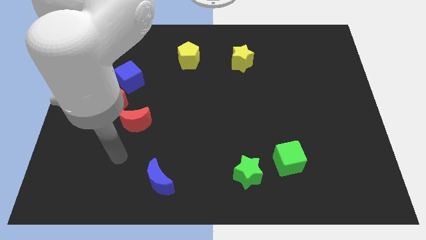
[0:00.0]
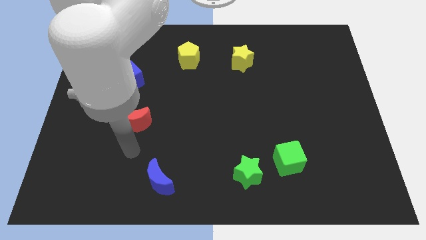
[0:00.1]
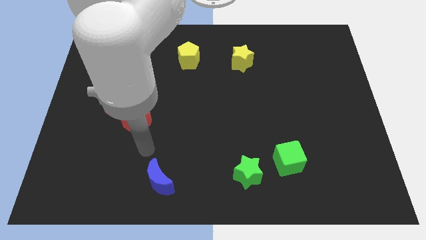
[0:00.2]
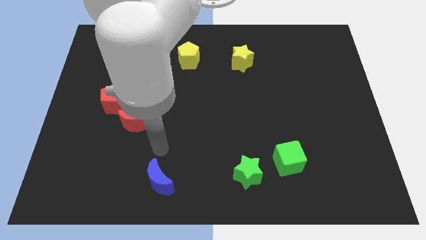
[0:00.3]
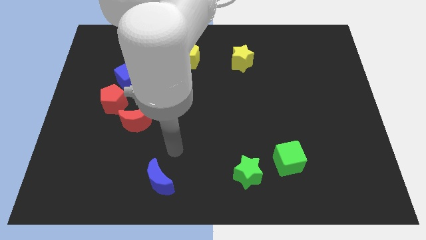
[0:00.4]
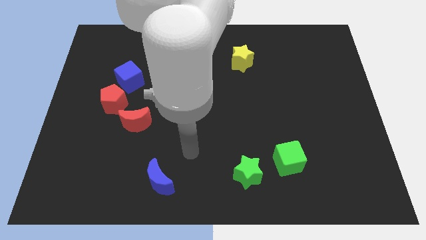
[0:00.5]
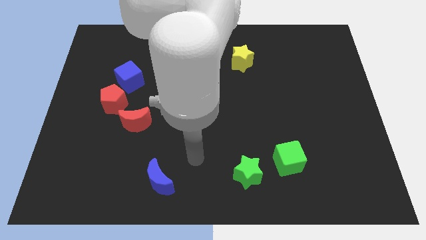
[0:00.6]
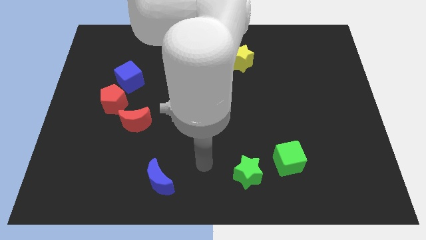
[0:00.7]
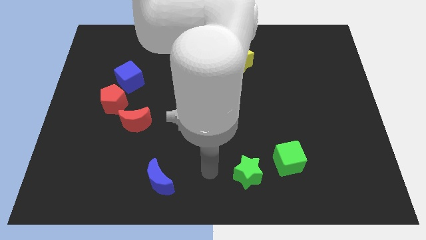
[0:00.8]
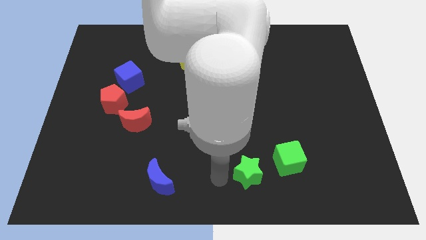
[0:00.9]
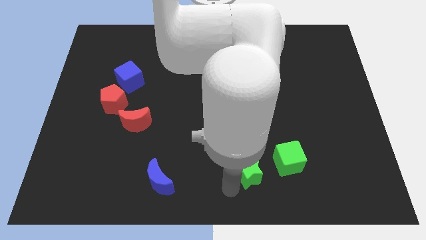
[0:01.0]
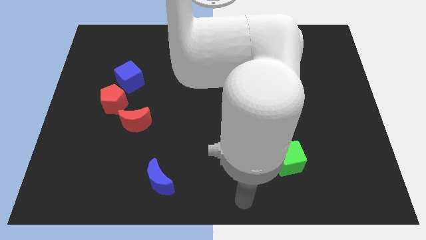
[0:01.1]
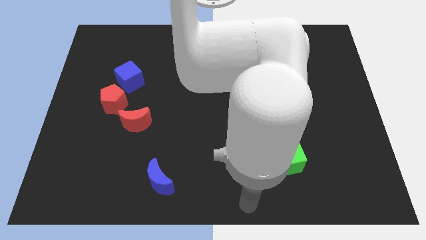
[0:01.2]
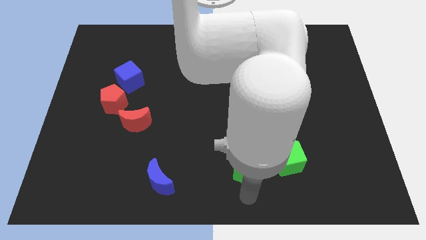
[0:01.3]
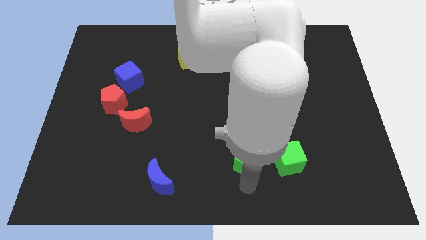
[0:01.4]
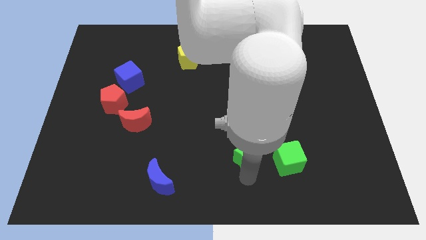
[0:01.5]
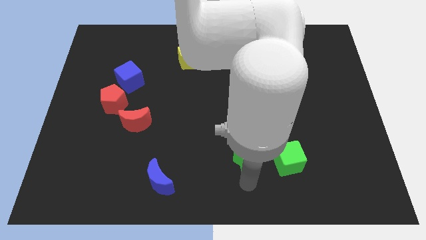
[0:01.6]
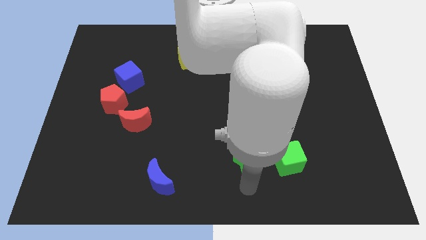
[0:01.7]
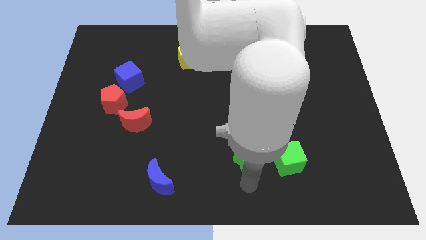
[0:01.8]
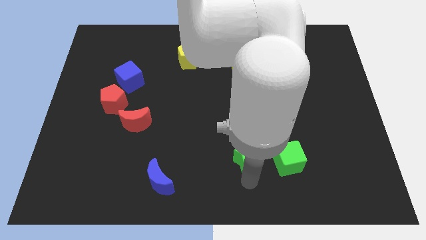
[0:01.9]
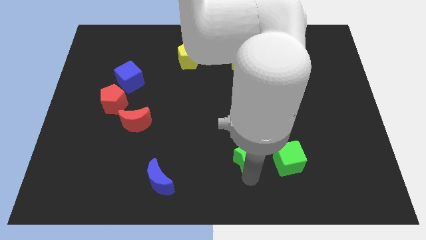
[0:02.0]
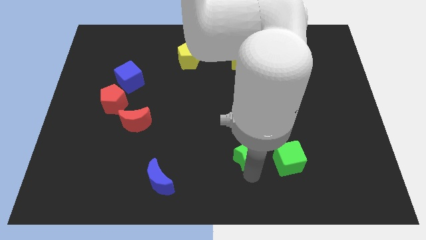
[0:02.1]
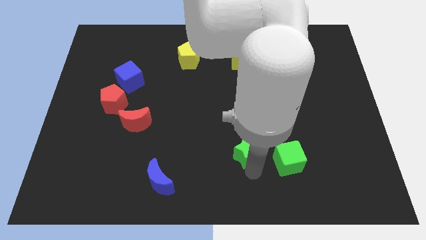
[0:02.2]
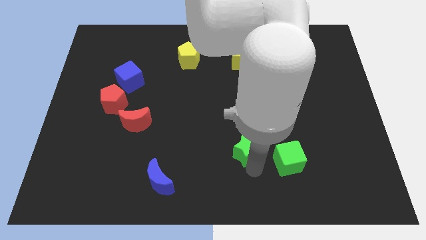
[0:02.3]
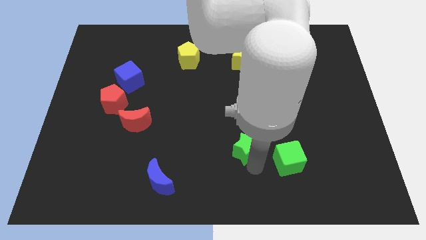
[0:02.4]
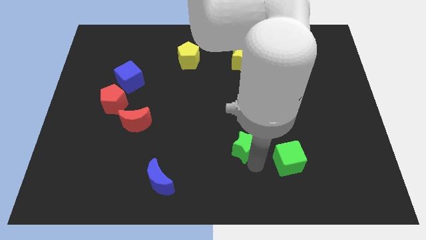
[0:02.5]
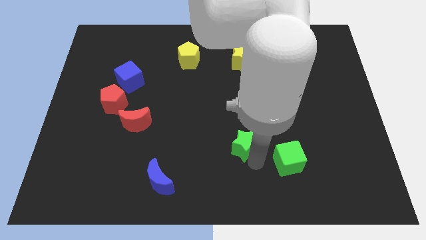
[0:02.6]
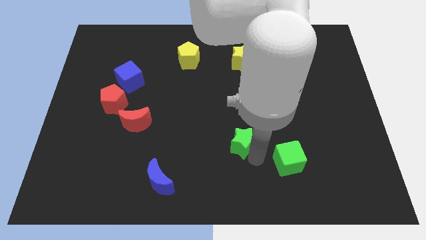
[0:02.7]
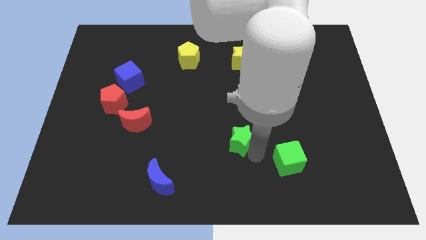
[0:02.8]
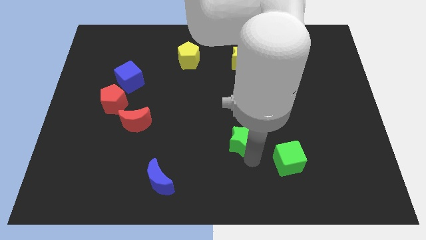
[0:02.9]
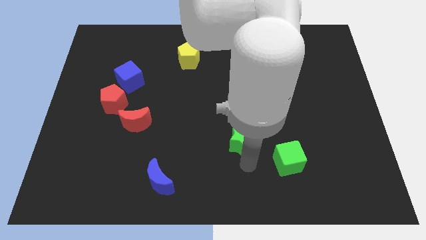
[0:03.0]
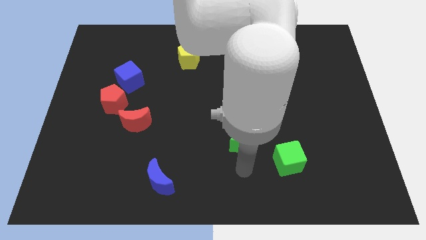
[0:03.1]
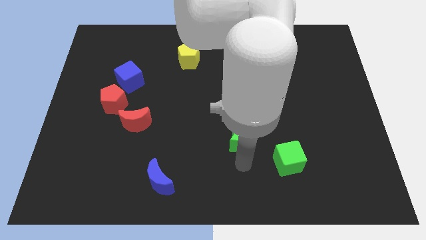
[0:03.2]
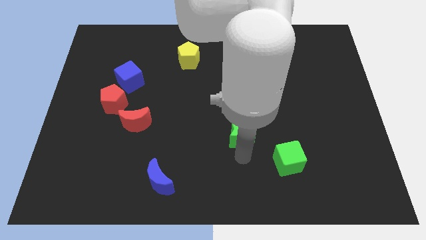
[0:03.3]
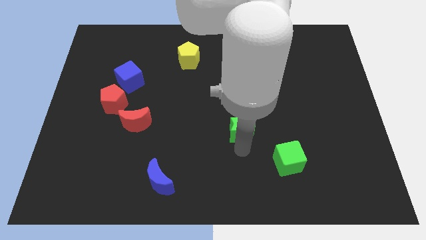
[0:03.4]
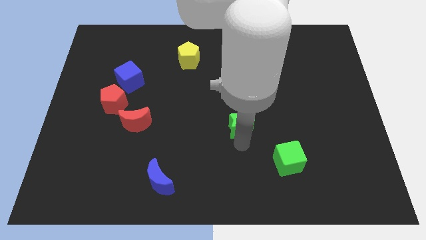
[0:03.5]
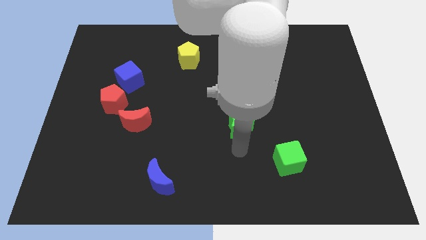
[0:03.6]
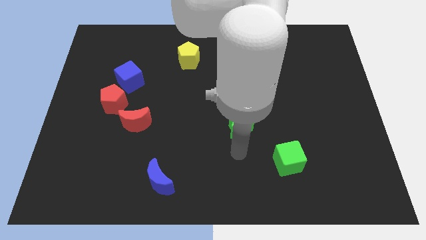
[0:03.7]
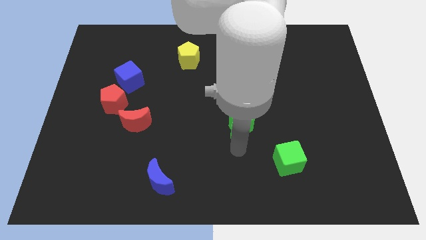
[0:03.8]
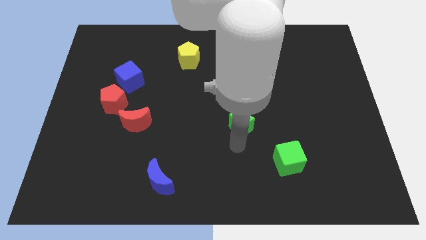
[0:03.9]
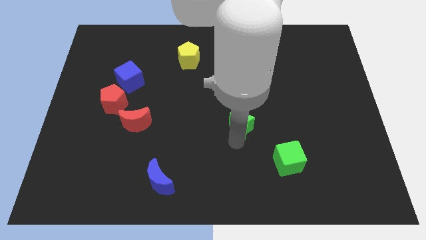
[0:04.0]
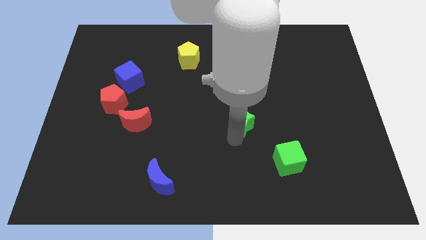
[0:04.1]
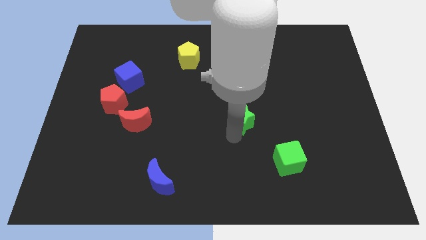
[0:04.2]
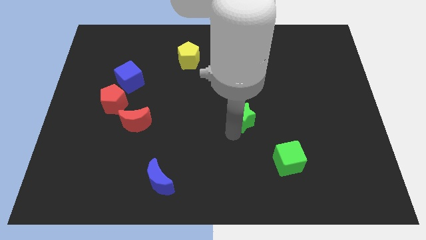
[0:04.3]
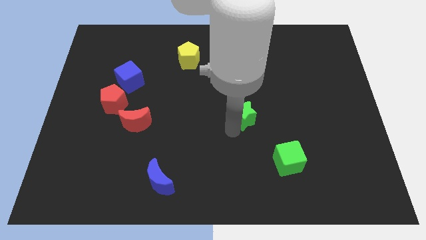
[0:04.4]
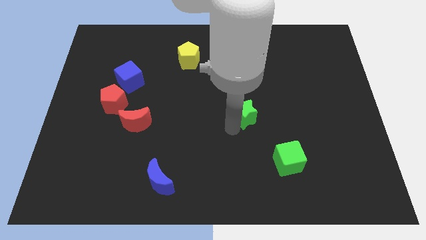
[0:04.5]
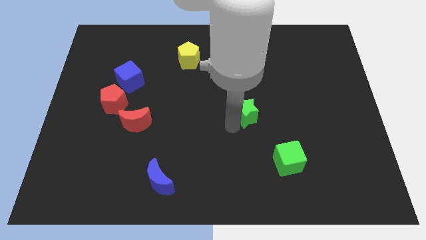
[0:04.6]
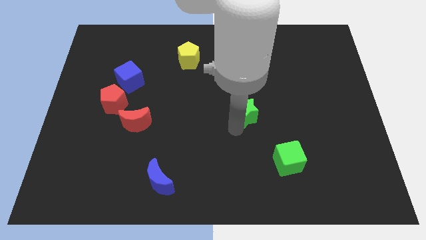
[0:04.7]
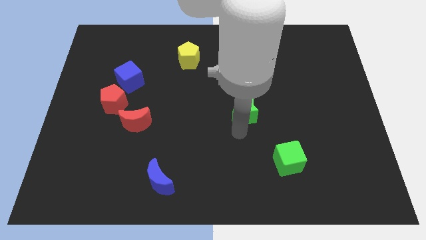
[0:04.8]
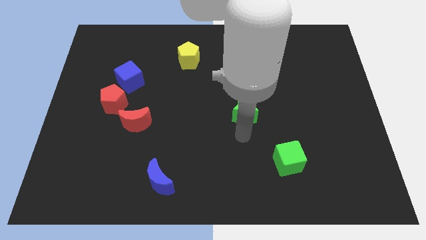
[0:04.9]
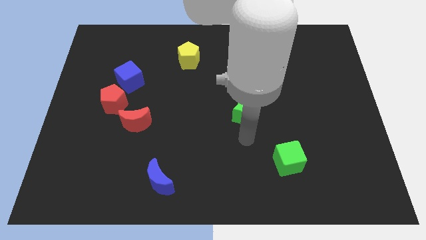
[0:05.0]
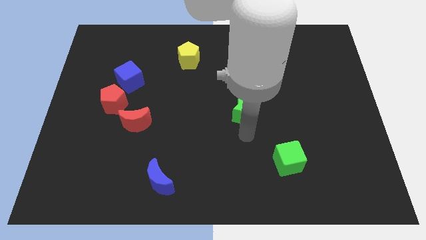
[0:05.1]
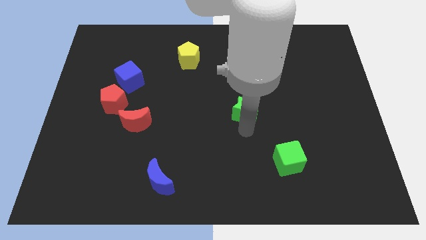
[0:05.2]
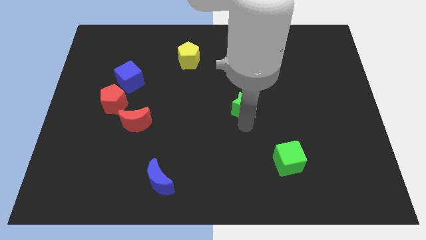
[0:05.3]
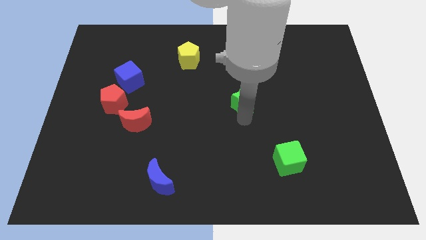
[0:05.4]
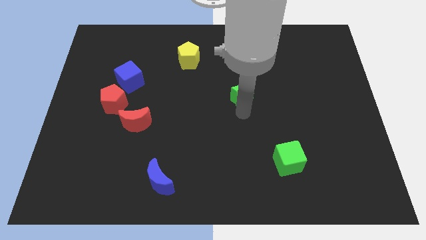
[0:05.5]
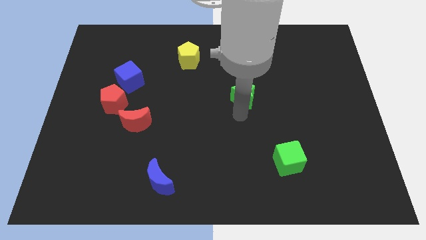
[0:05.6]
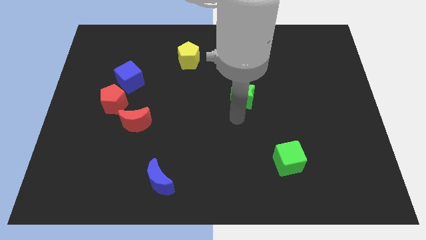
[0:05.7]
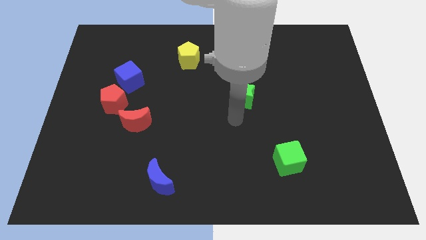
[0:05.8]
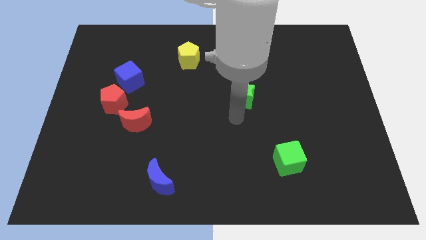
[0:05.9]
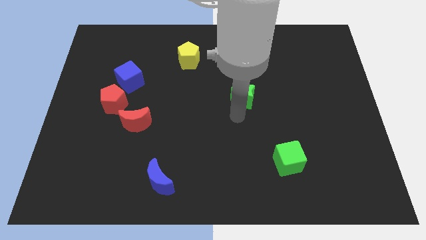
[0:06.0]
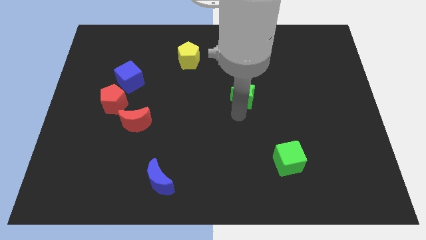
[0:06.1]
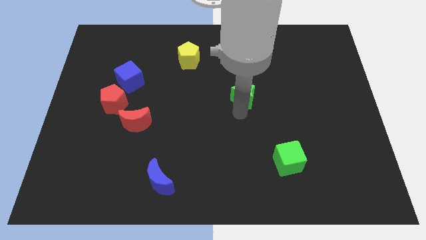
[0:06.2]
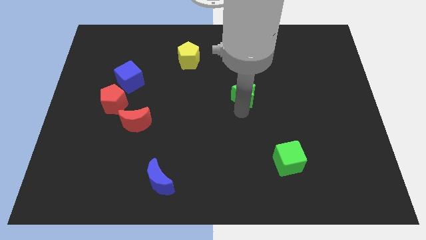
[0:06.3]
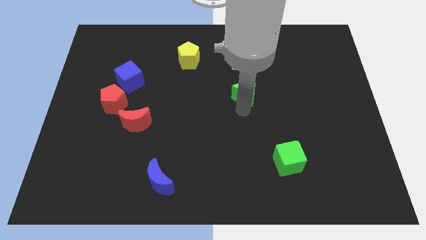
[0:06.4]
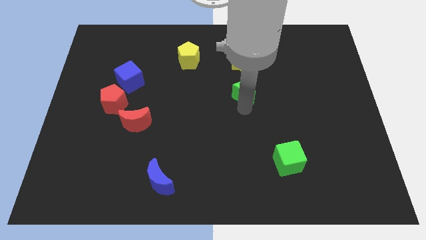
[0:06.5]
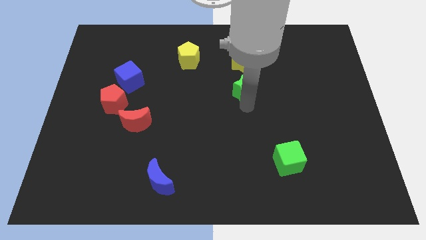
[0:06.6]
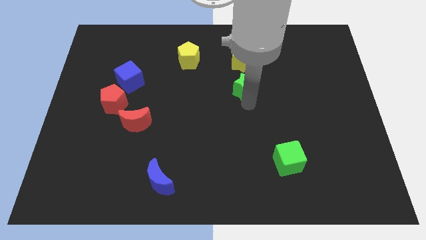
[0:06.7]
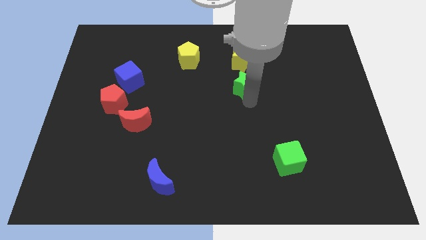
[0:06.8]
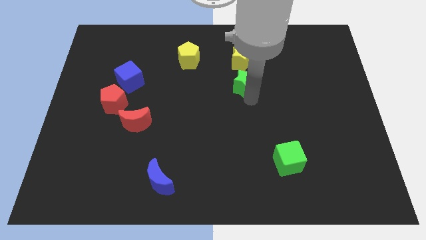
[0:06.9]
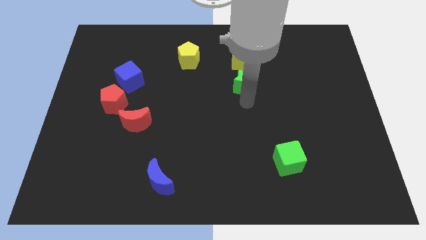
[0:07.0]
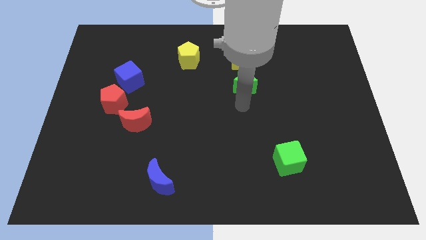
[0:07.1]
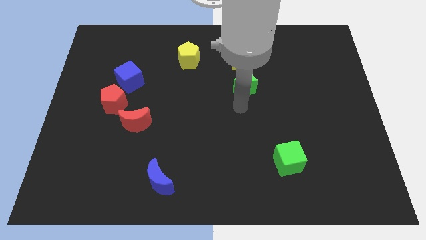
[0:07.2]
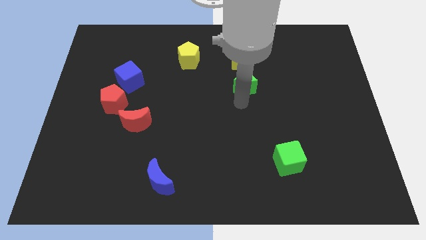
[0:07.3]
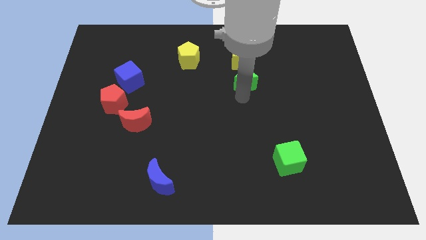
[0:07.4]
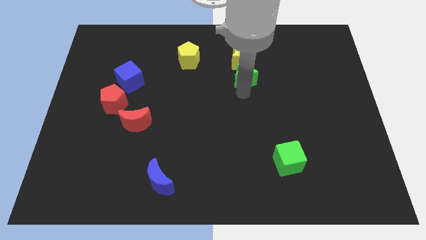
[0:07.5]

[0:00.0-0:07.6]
push the green star towards the yellow star
